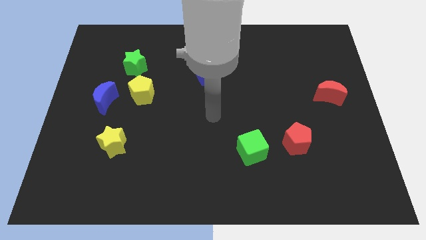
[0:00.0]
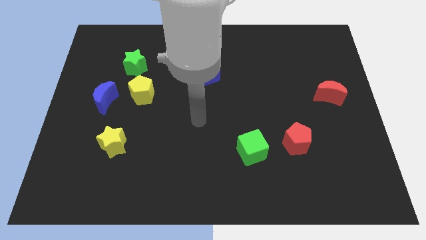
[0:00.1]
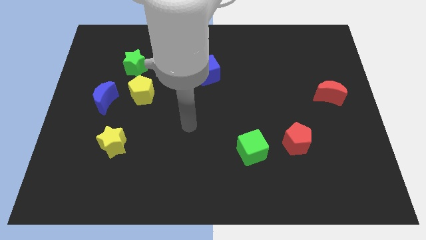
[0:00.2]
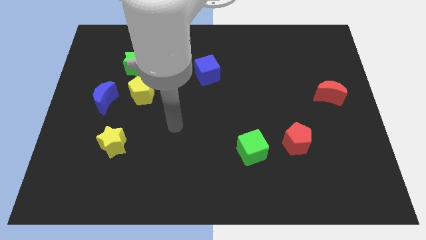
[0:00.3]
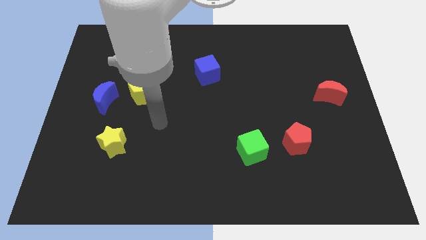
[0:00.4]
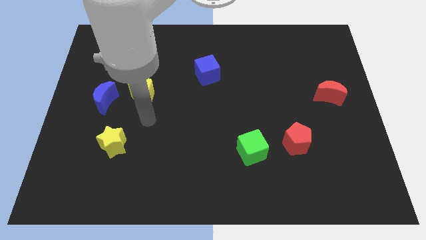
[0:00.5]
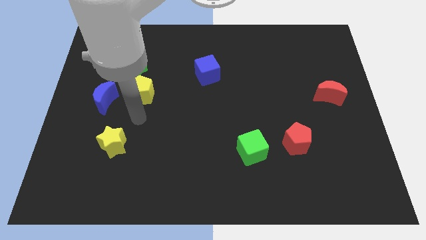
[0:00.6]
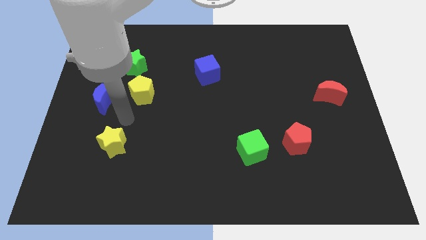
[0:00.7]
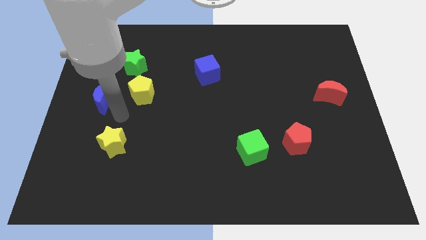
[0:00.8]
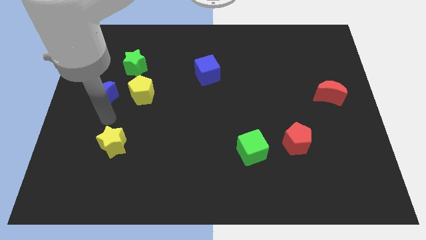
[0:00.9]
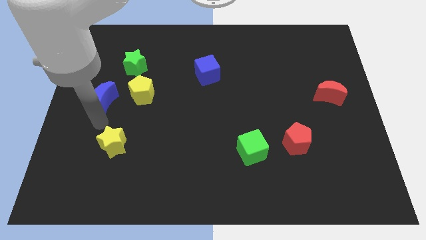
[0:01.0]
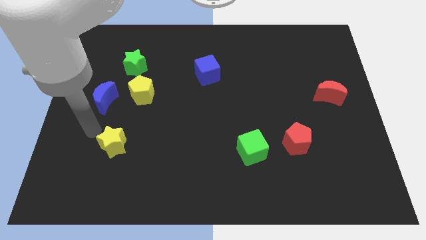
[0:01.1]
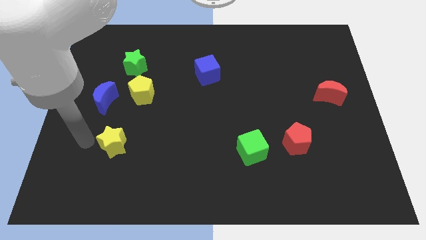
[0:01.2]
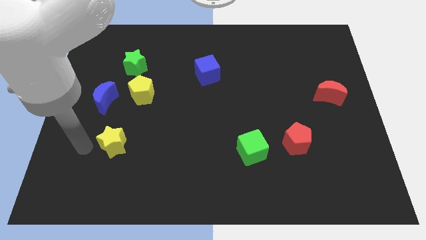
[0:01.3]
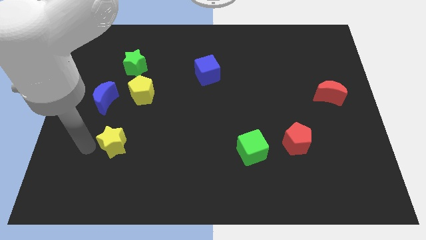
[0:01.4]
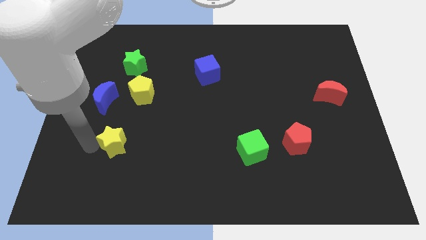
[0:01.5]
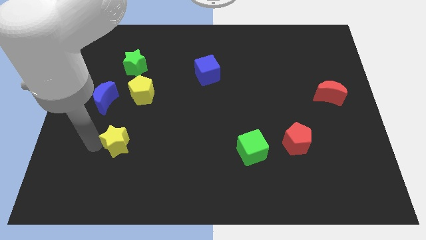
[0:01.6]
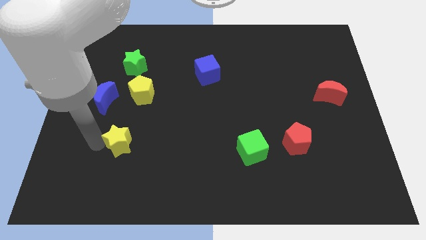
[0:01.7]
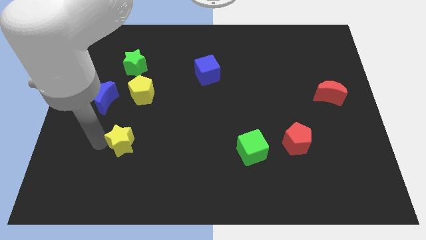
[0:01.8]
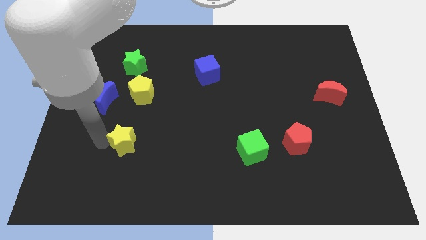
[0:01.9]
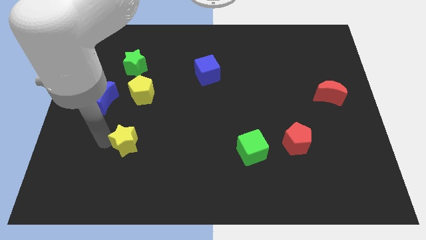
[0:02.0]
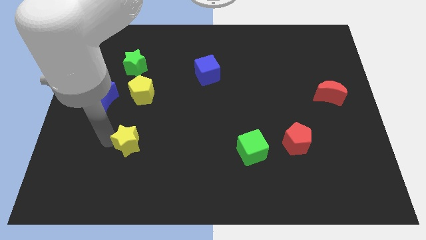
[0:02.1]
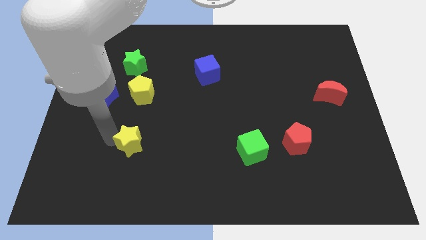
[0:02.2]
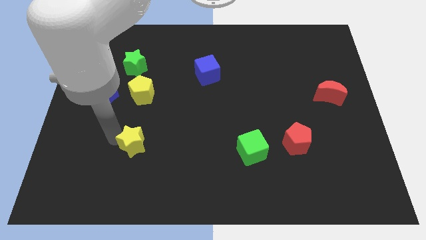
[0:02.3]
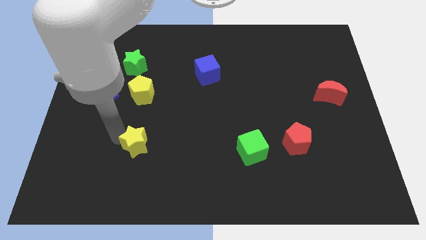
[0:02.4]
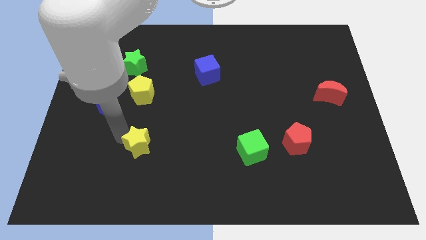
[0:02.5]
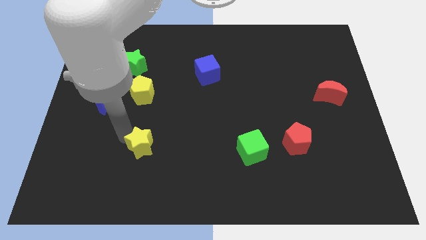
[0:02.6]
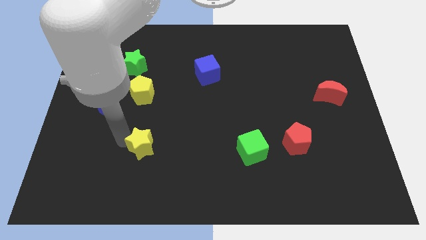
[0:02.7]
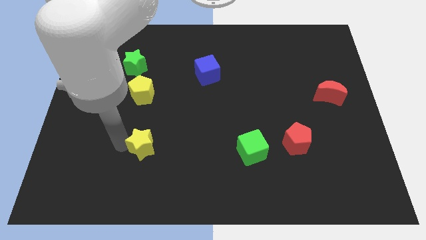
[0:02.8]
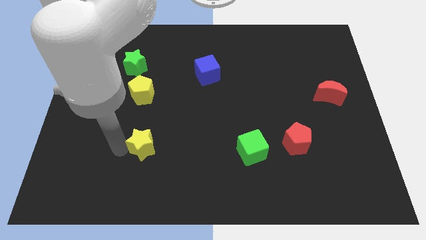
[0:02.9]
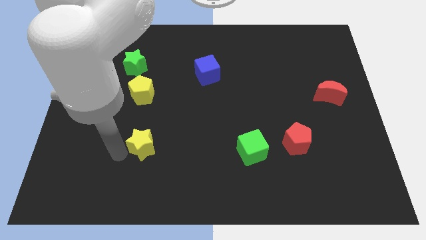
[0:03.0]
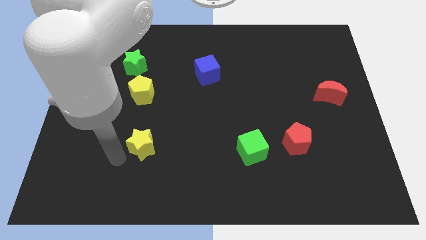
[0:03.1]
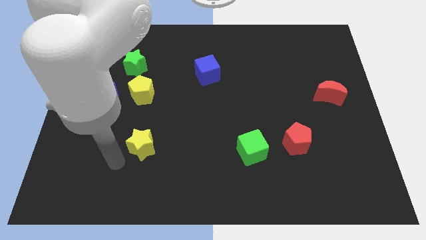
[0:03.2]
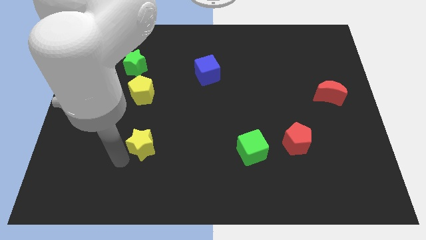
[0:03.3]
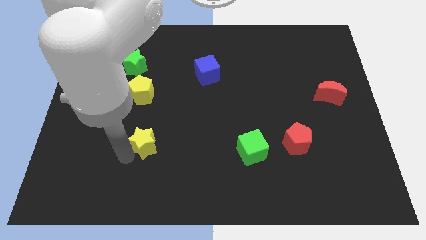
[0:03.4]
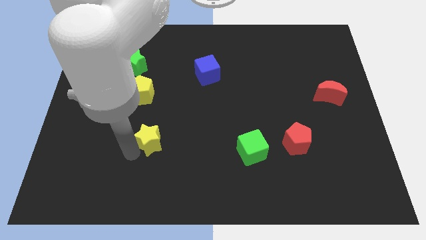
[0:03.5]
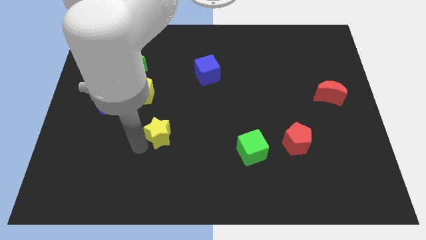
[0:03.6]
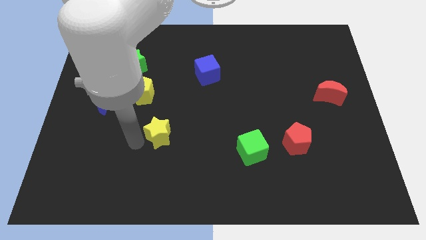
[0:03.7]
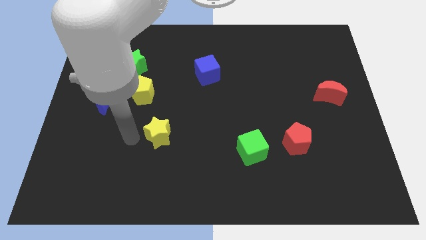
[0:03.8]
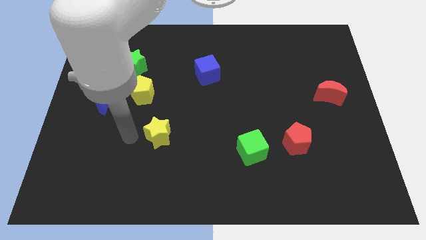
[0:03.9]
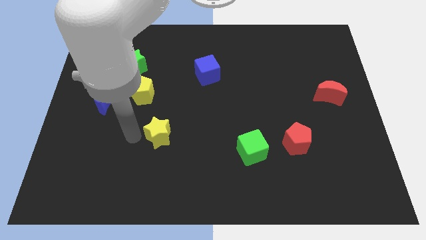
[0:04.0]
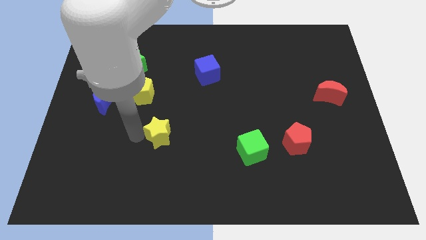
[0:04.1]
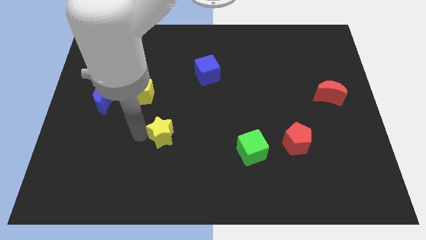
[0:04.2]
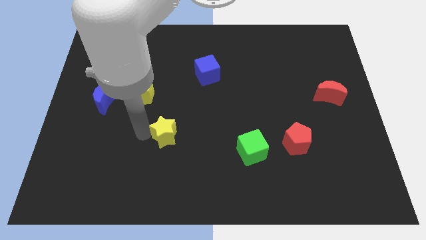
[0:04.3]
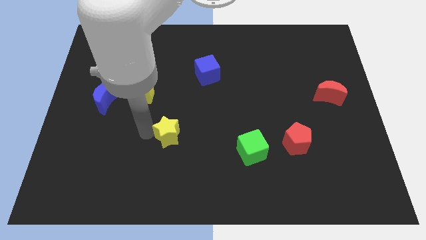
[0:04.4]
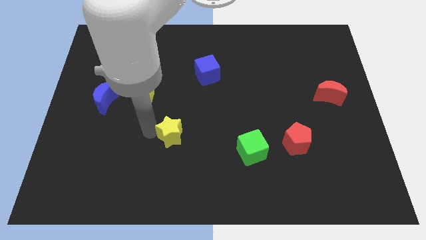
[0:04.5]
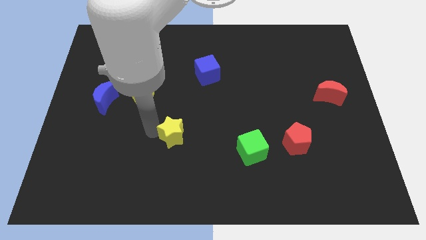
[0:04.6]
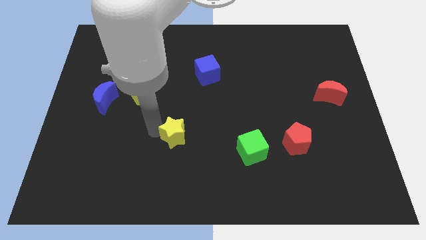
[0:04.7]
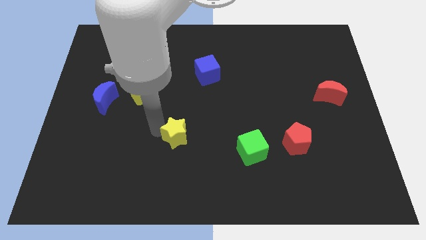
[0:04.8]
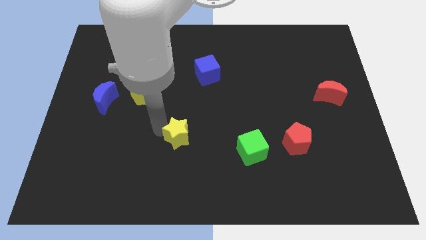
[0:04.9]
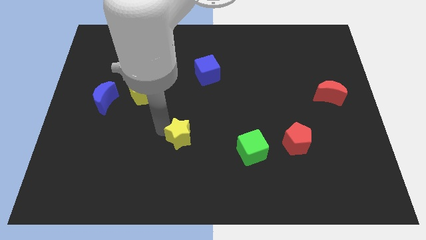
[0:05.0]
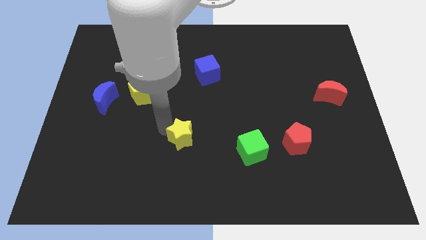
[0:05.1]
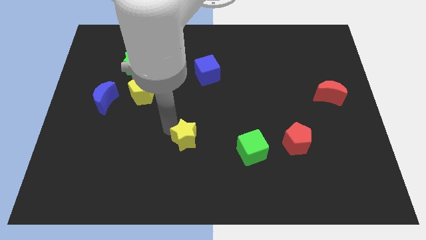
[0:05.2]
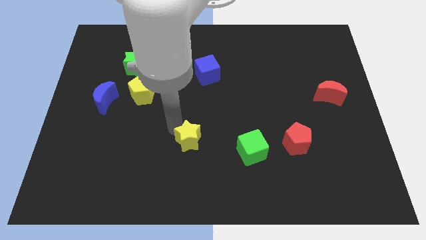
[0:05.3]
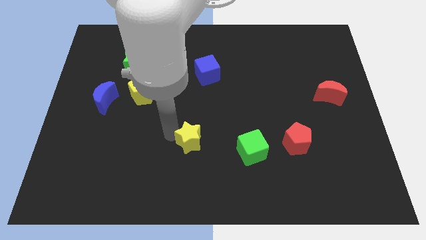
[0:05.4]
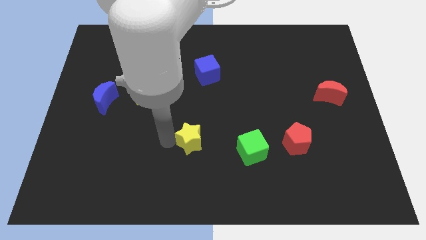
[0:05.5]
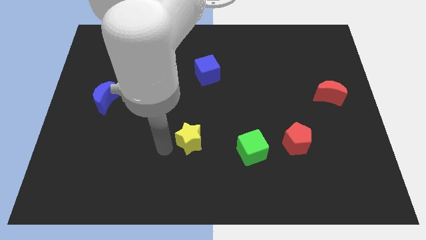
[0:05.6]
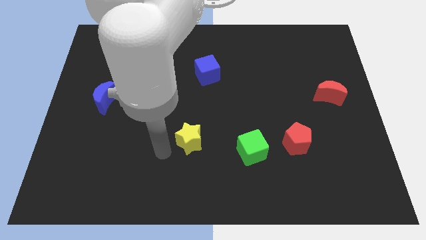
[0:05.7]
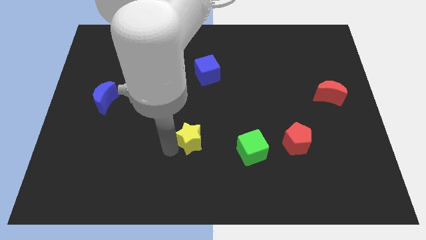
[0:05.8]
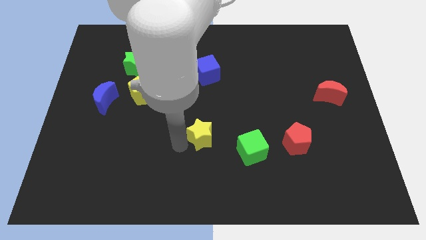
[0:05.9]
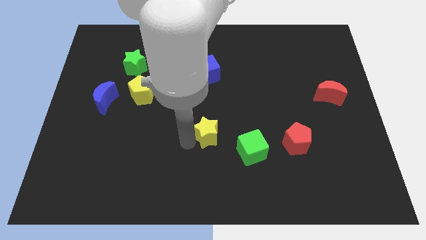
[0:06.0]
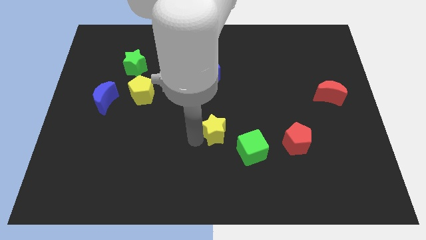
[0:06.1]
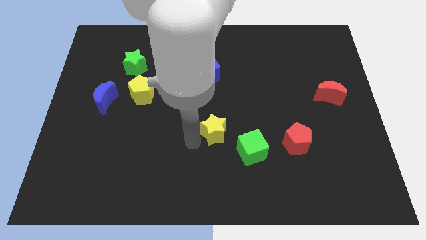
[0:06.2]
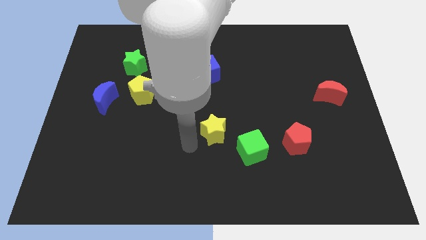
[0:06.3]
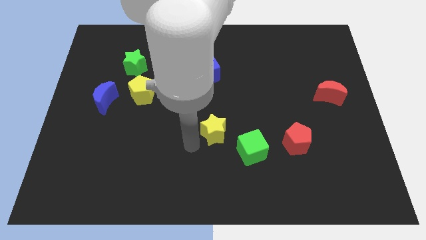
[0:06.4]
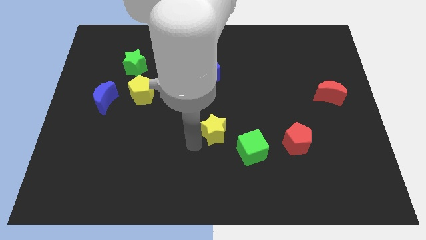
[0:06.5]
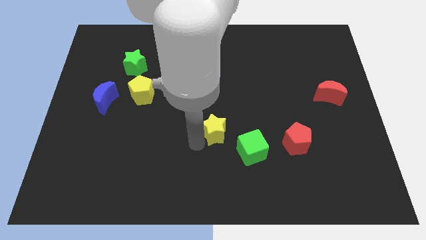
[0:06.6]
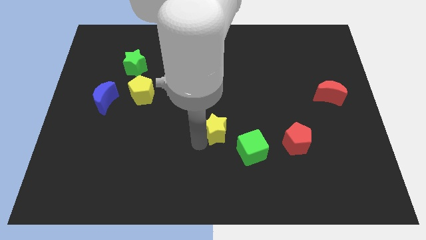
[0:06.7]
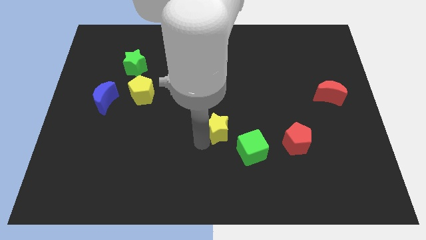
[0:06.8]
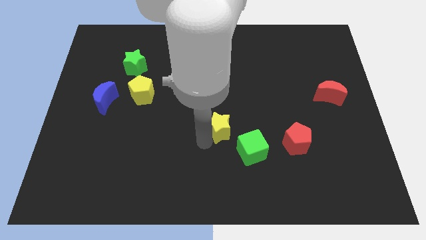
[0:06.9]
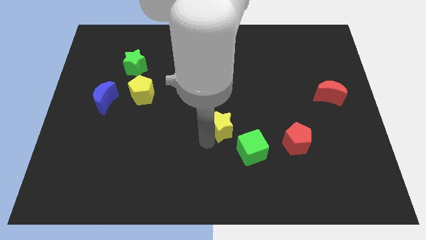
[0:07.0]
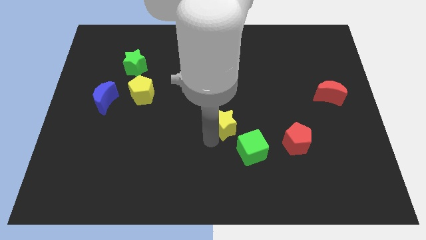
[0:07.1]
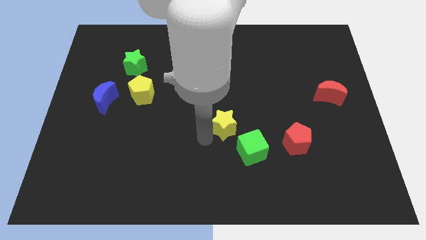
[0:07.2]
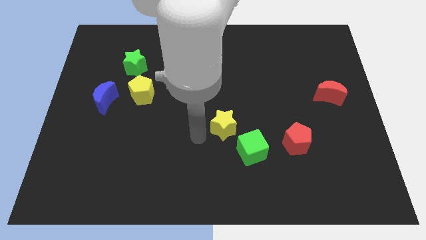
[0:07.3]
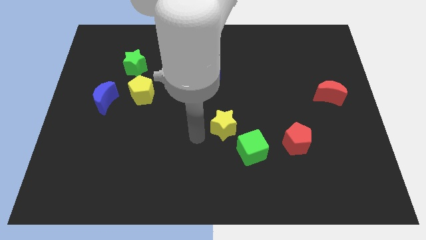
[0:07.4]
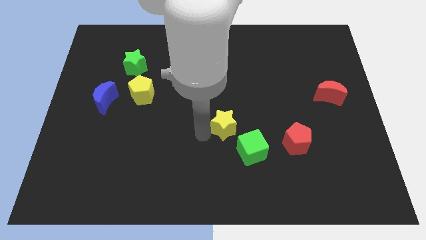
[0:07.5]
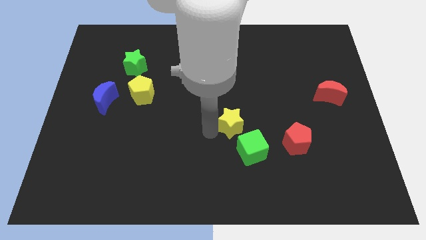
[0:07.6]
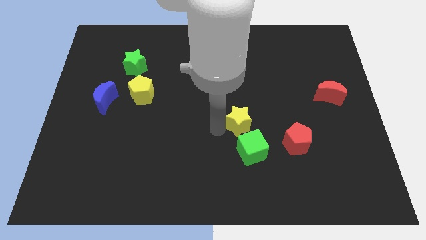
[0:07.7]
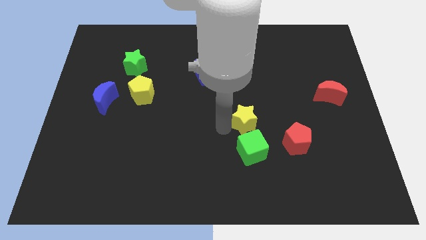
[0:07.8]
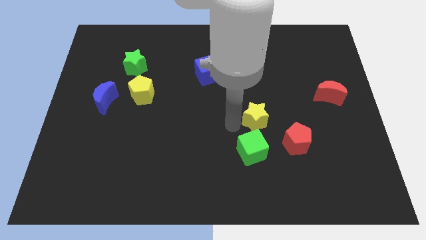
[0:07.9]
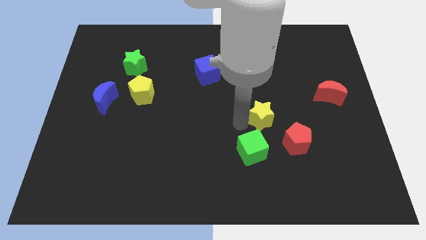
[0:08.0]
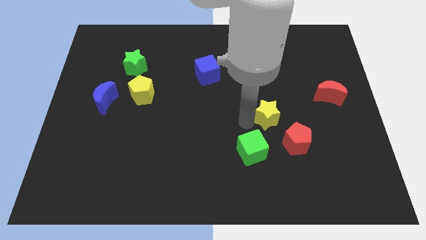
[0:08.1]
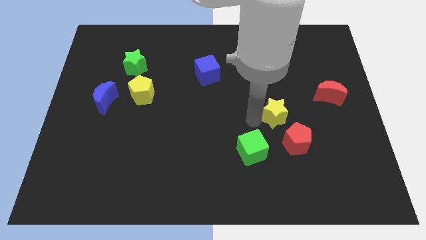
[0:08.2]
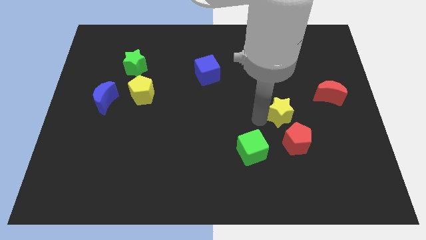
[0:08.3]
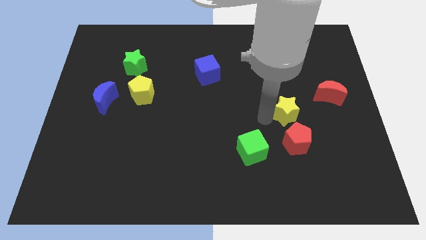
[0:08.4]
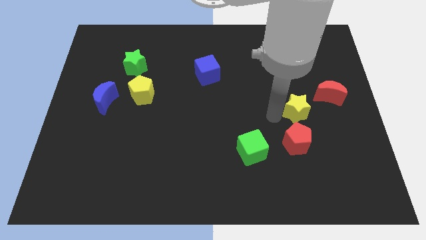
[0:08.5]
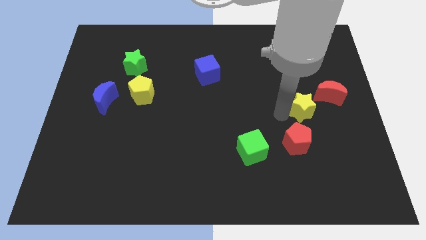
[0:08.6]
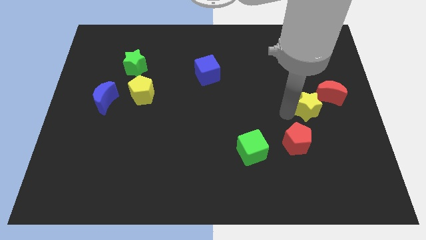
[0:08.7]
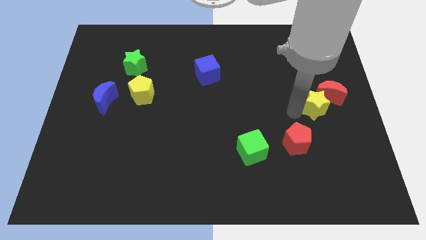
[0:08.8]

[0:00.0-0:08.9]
move the yellow star next to the red moon
